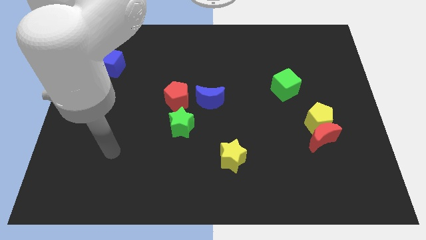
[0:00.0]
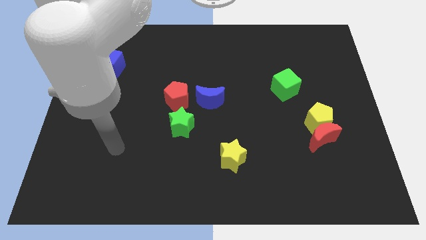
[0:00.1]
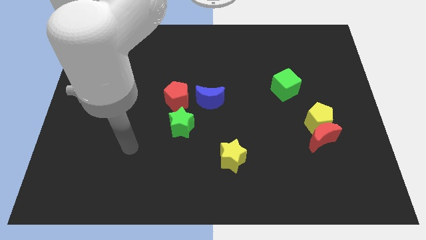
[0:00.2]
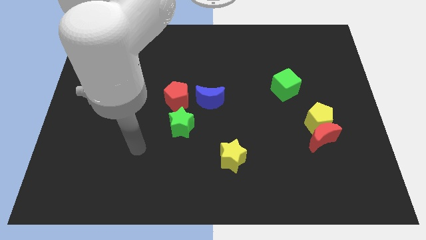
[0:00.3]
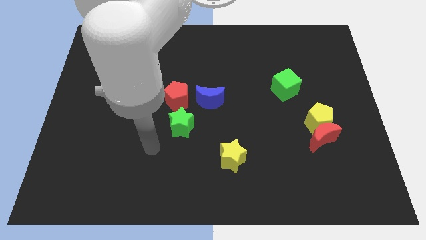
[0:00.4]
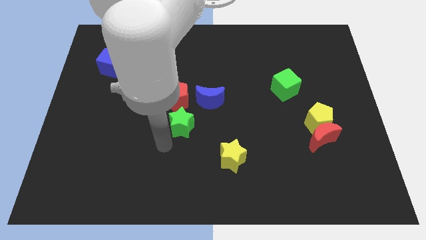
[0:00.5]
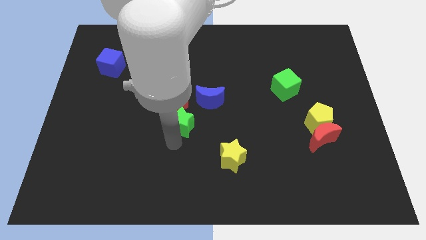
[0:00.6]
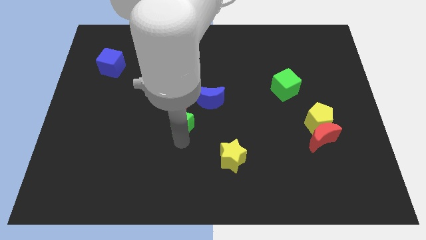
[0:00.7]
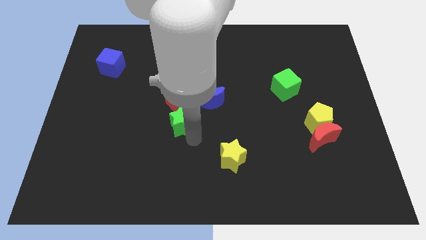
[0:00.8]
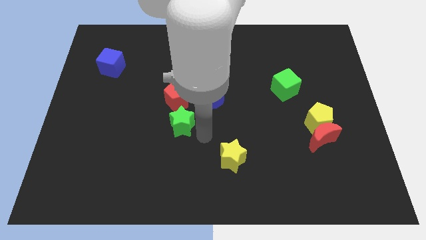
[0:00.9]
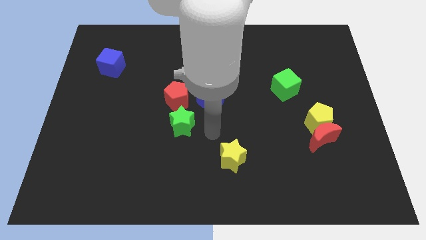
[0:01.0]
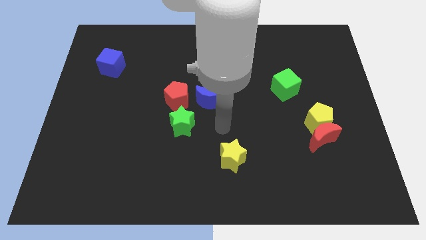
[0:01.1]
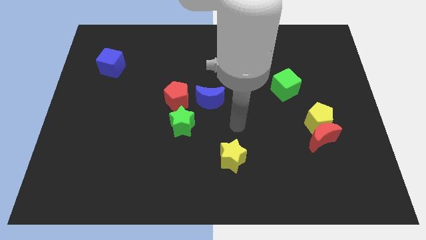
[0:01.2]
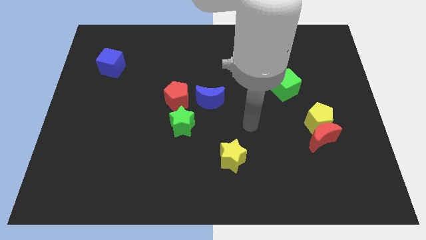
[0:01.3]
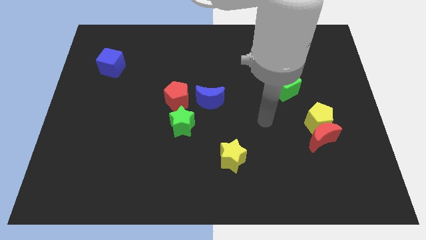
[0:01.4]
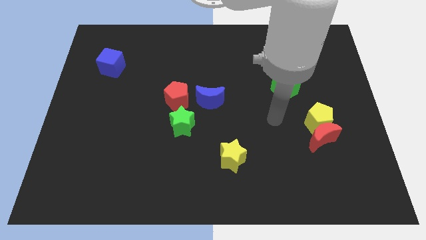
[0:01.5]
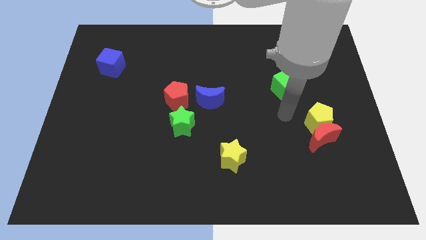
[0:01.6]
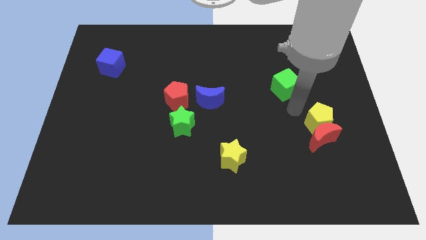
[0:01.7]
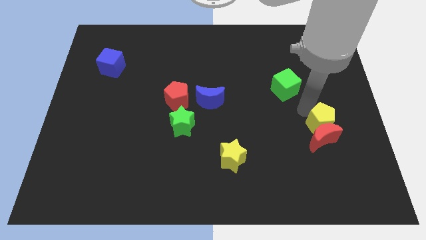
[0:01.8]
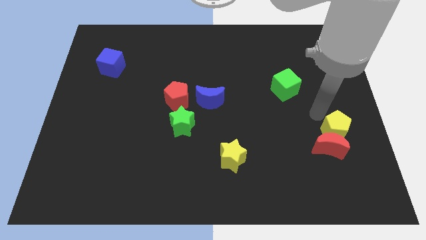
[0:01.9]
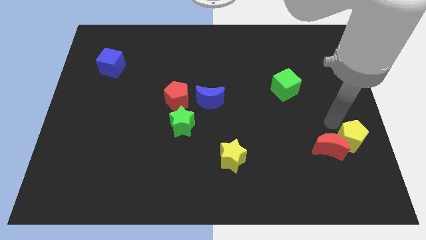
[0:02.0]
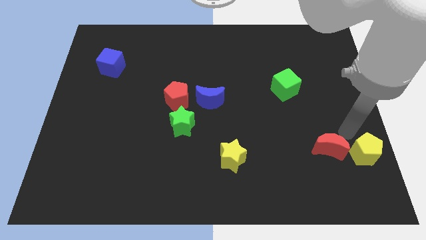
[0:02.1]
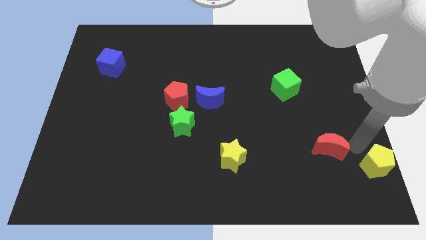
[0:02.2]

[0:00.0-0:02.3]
pull the red moon apart from the yellow pentagon

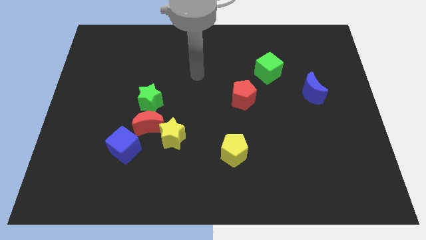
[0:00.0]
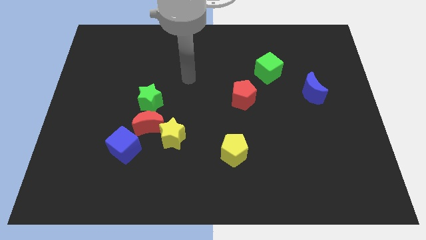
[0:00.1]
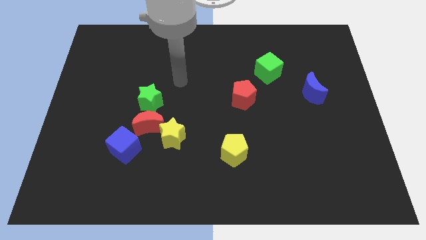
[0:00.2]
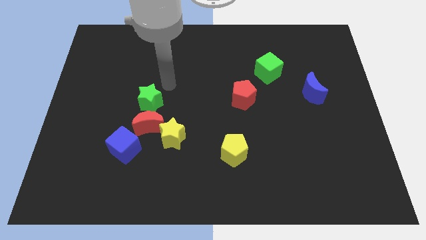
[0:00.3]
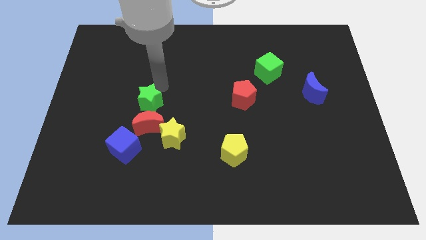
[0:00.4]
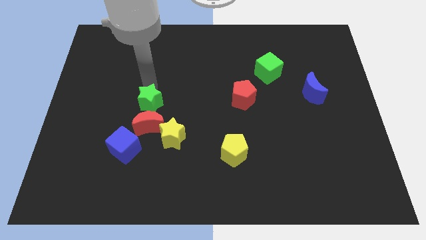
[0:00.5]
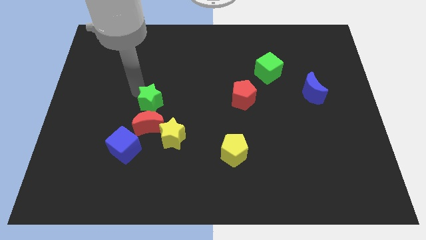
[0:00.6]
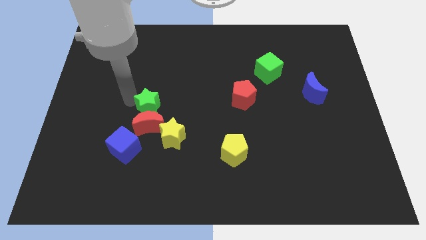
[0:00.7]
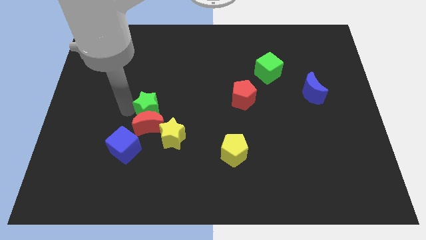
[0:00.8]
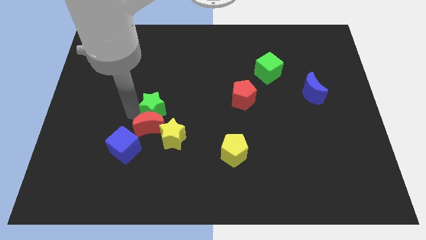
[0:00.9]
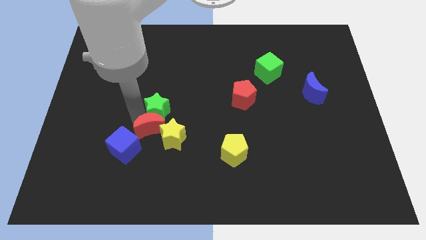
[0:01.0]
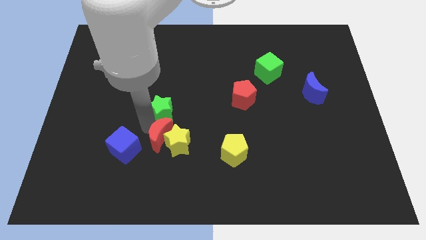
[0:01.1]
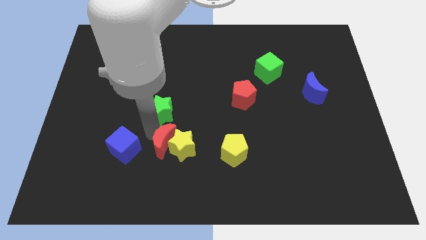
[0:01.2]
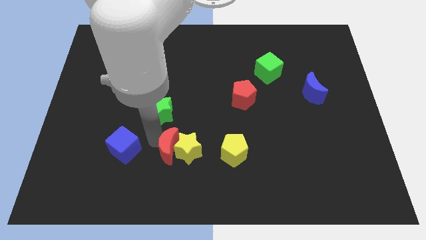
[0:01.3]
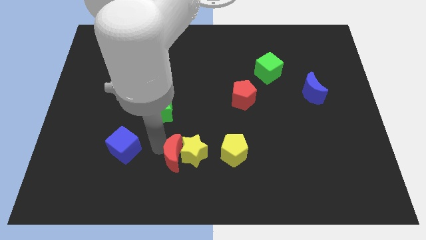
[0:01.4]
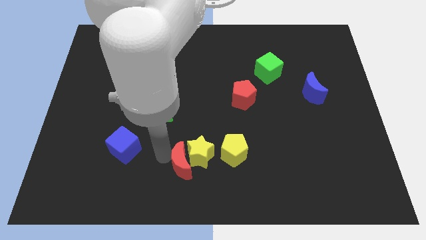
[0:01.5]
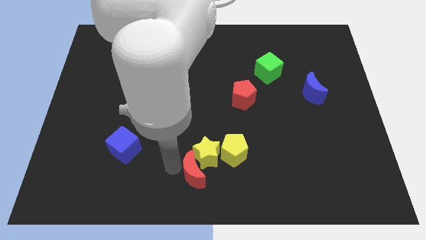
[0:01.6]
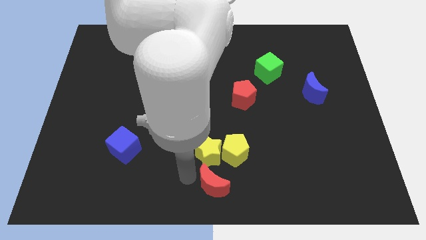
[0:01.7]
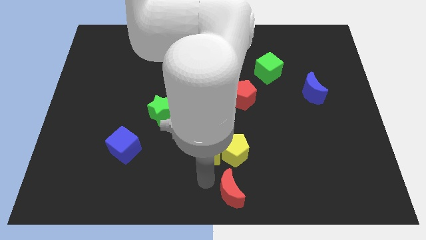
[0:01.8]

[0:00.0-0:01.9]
pull the yellow star apart from the red moon

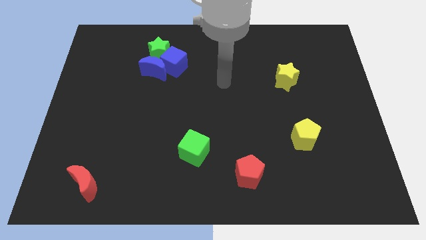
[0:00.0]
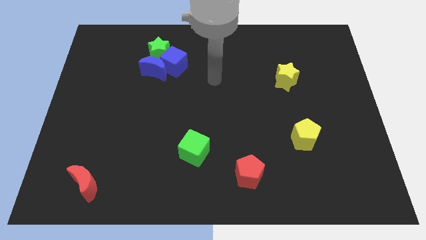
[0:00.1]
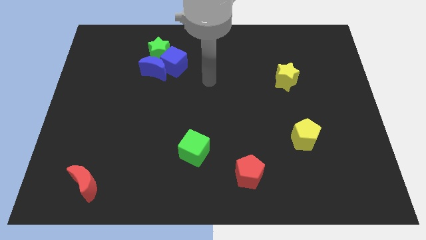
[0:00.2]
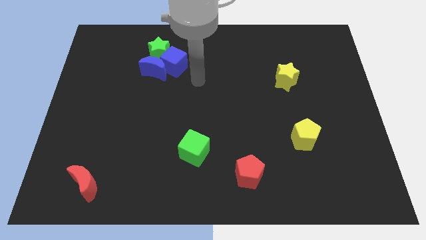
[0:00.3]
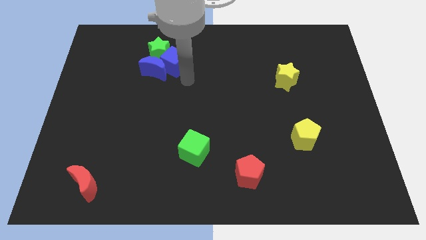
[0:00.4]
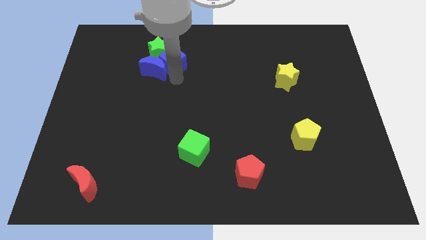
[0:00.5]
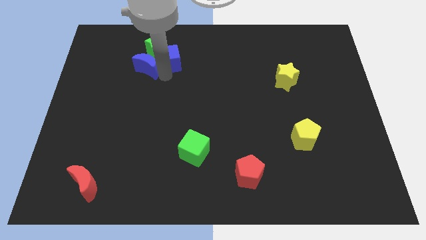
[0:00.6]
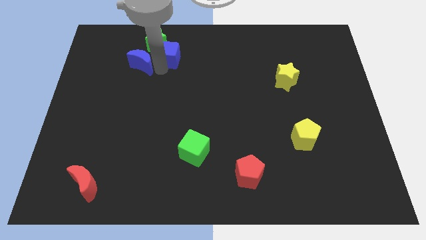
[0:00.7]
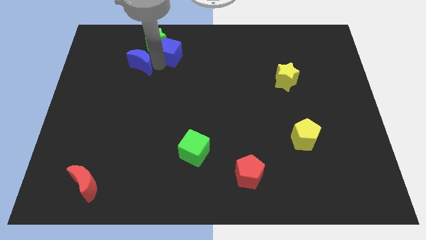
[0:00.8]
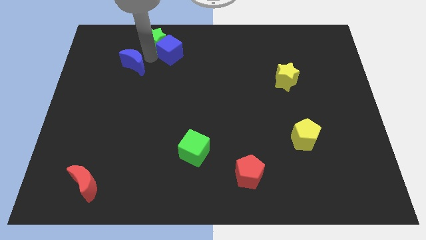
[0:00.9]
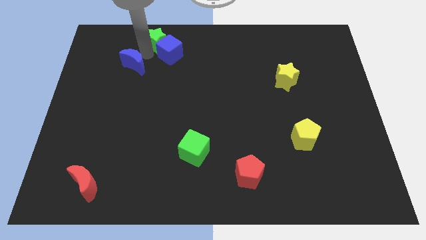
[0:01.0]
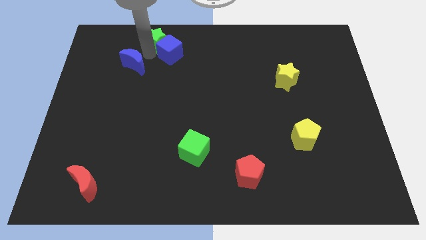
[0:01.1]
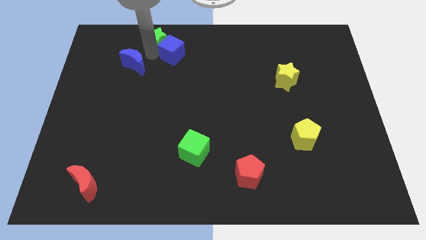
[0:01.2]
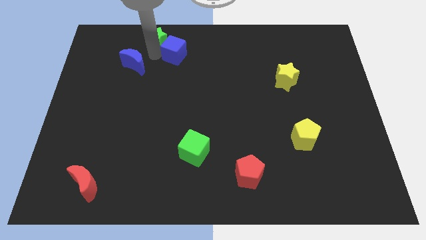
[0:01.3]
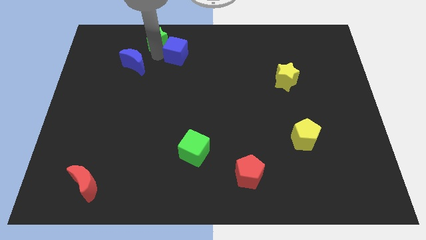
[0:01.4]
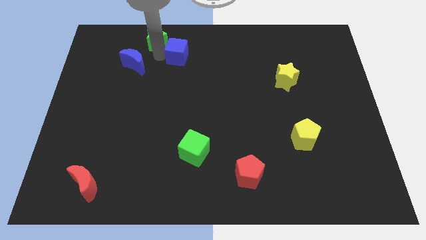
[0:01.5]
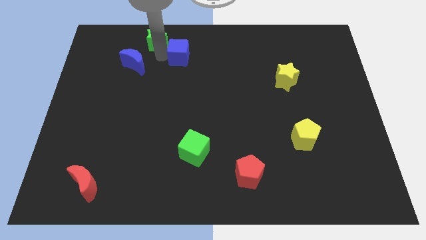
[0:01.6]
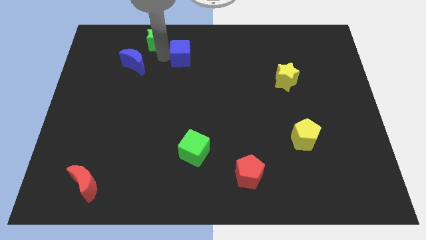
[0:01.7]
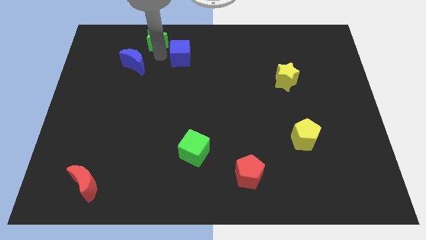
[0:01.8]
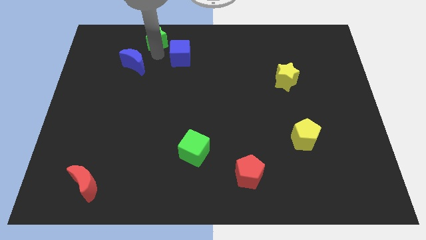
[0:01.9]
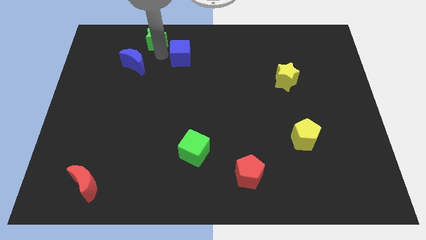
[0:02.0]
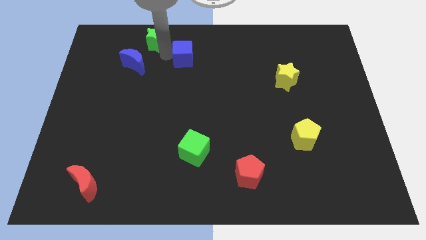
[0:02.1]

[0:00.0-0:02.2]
move the blue cube away from the blue moon and green star

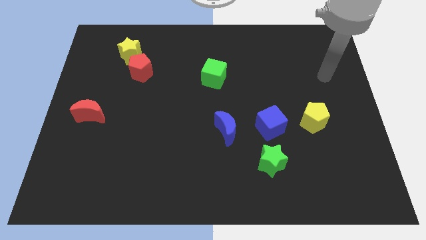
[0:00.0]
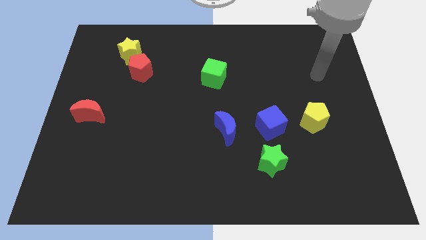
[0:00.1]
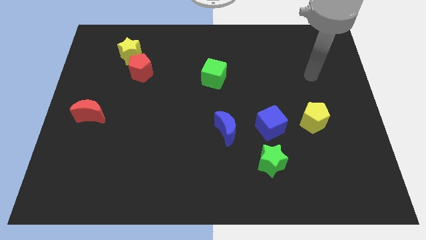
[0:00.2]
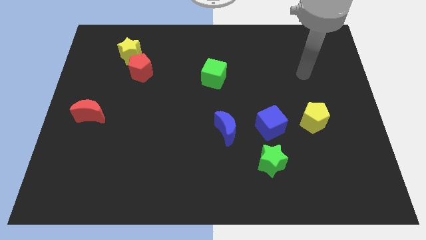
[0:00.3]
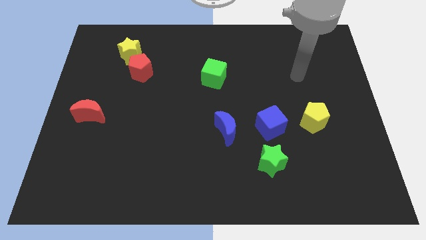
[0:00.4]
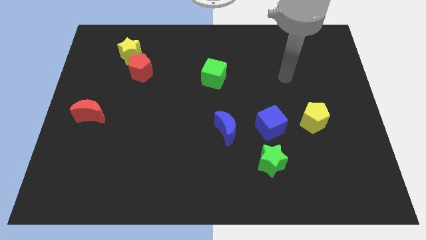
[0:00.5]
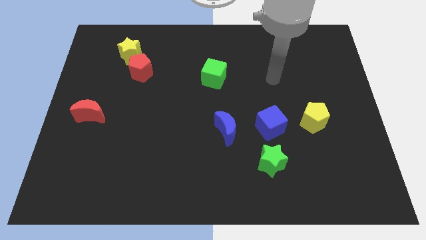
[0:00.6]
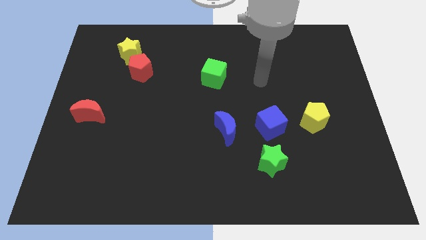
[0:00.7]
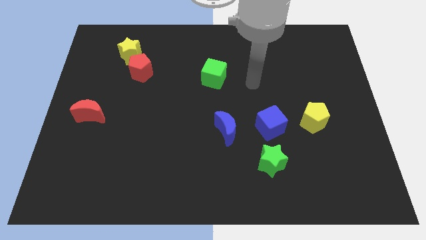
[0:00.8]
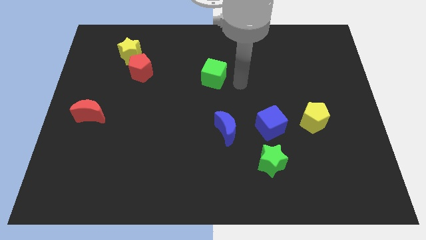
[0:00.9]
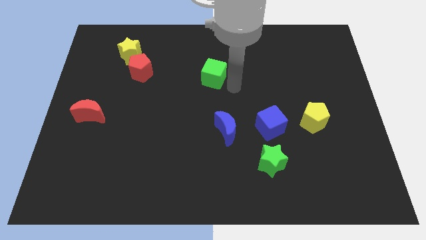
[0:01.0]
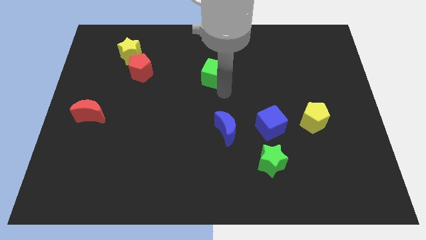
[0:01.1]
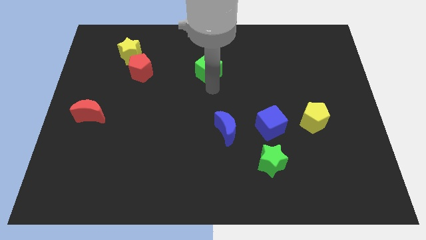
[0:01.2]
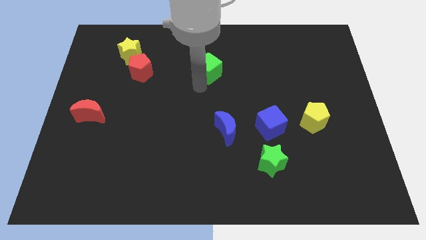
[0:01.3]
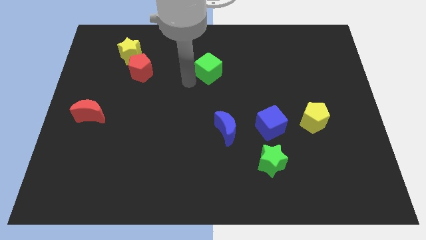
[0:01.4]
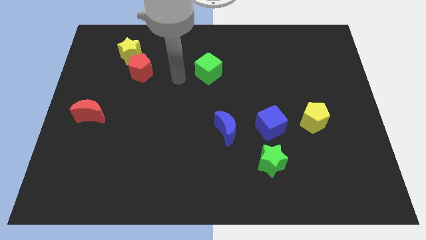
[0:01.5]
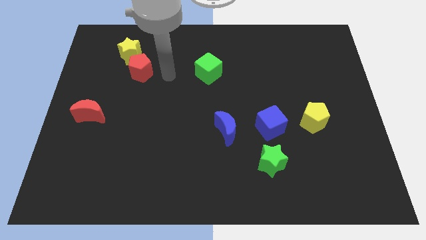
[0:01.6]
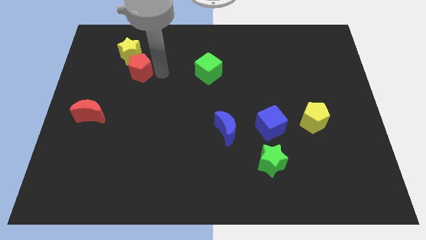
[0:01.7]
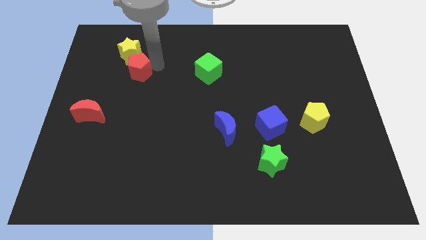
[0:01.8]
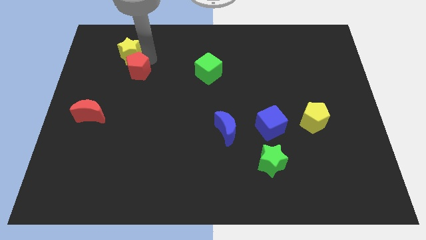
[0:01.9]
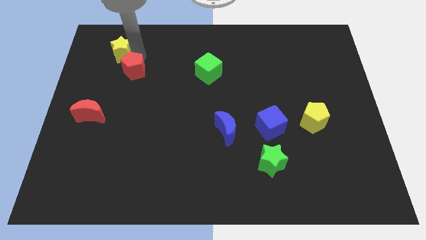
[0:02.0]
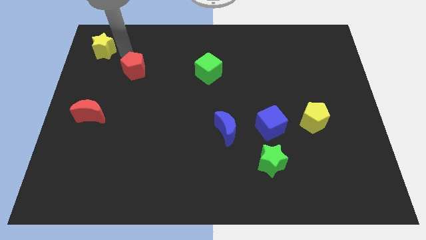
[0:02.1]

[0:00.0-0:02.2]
move the red pentagon away from the yellow star

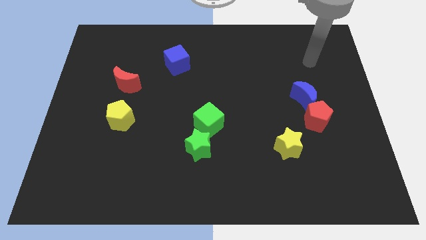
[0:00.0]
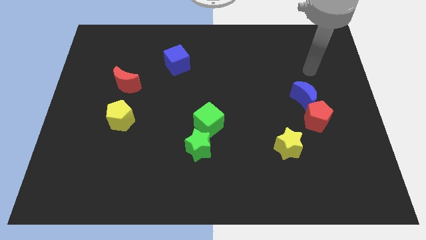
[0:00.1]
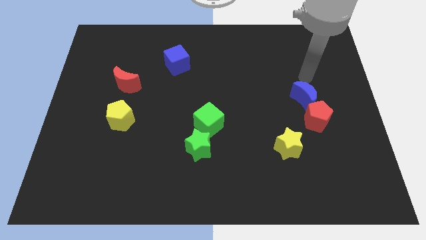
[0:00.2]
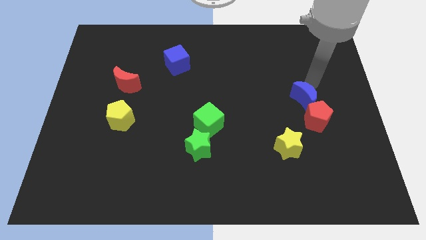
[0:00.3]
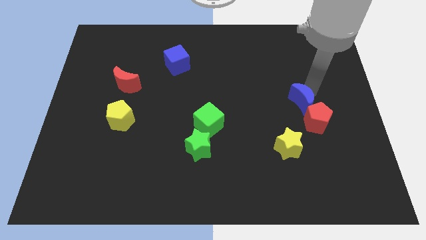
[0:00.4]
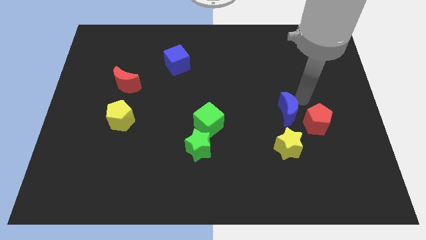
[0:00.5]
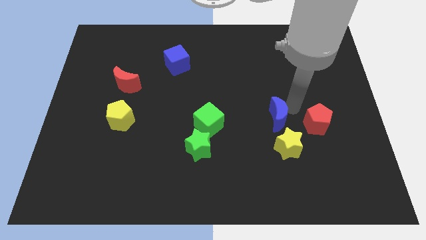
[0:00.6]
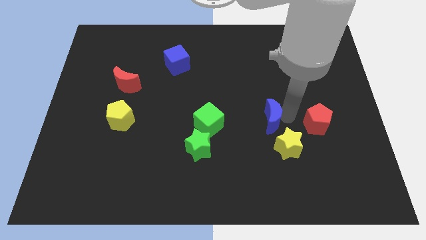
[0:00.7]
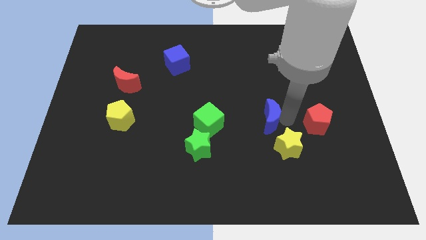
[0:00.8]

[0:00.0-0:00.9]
move the red pentagon away from the blue moon
